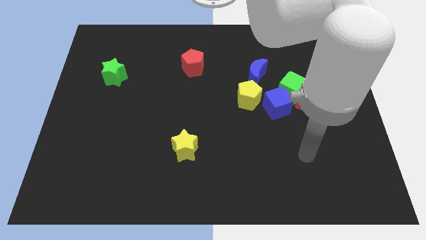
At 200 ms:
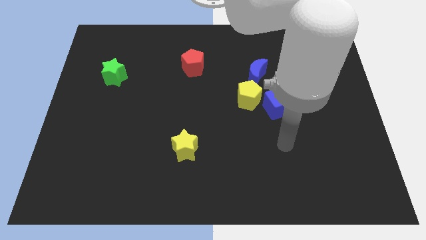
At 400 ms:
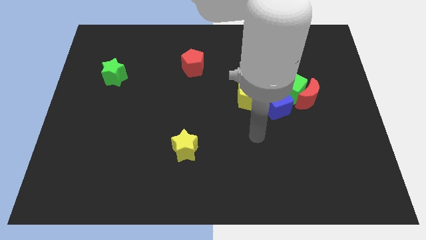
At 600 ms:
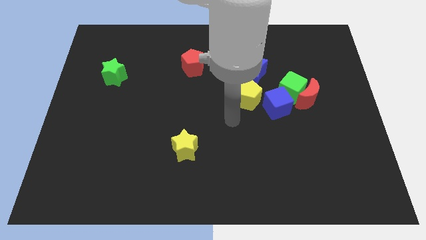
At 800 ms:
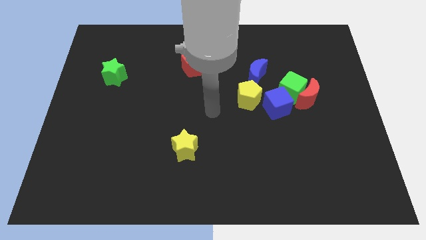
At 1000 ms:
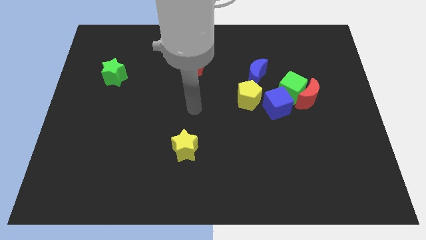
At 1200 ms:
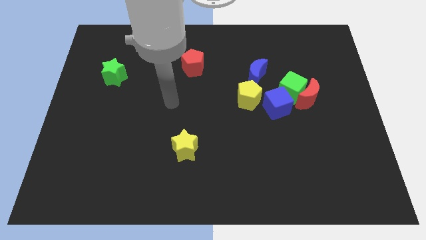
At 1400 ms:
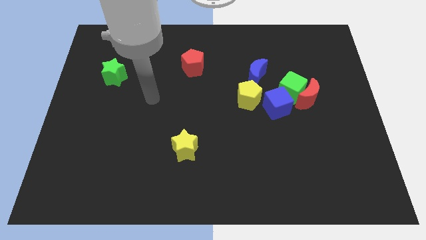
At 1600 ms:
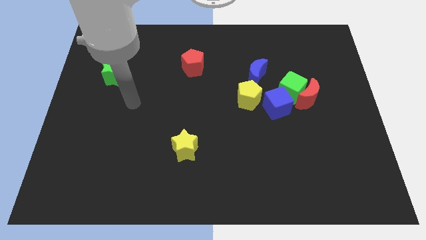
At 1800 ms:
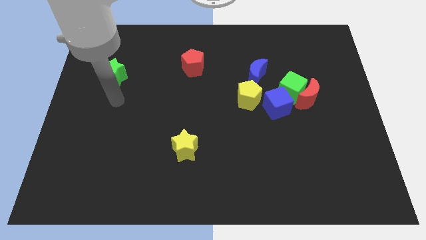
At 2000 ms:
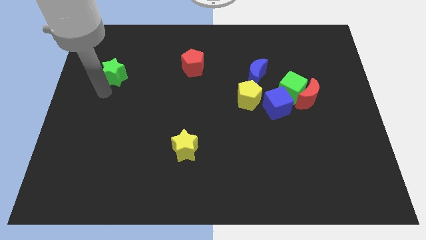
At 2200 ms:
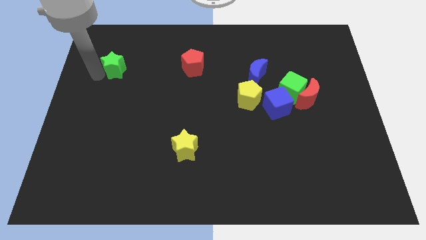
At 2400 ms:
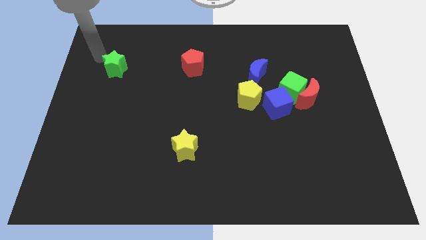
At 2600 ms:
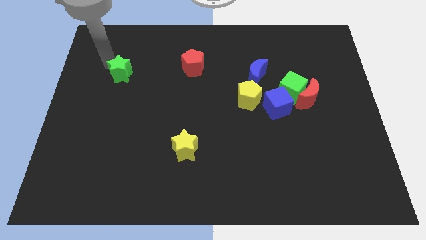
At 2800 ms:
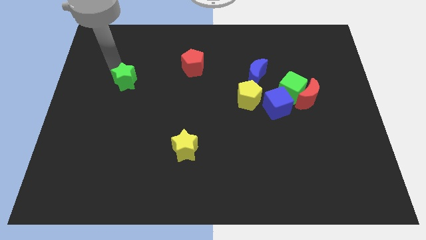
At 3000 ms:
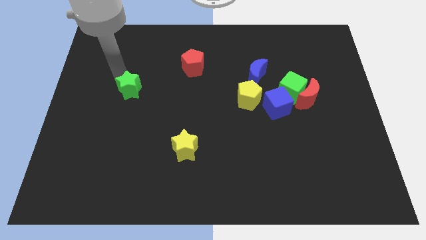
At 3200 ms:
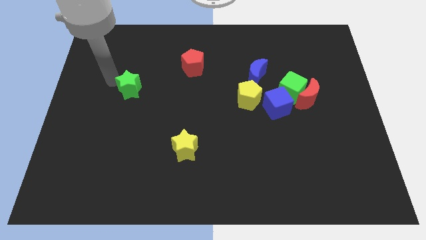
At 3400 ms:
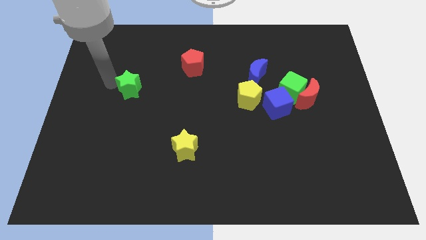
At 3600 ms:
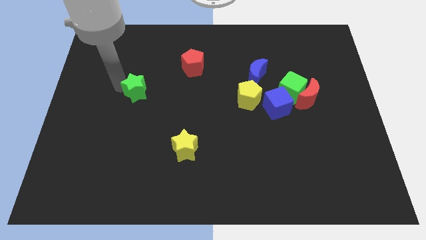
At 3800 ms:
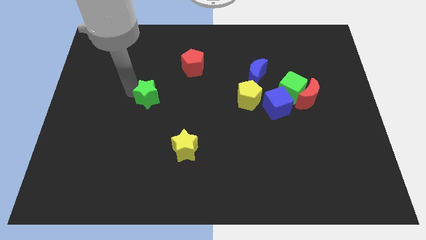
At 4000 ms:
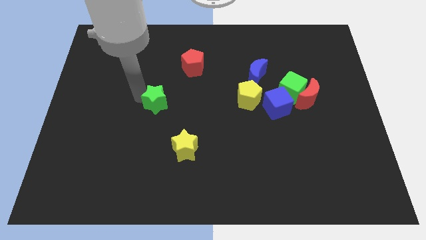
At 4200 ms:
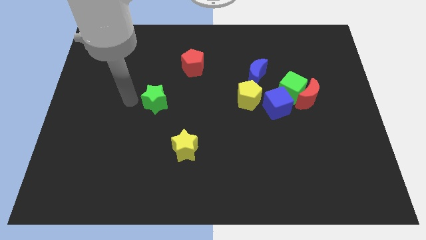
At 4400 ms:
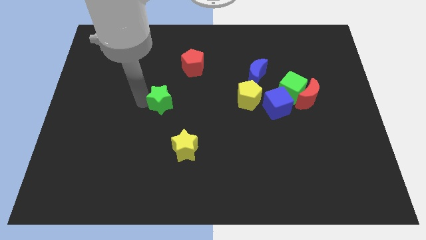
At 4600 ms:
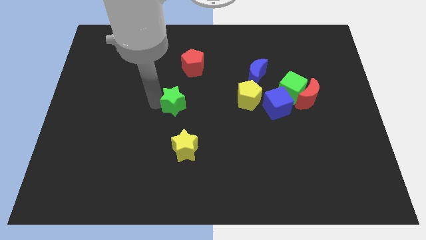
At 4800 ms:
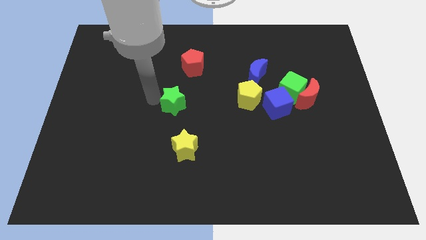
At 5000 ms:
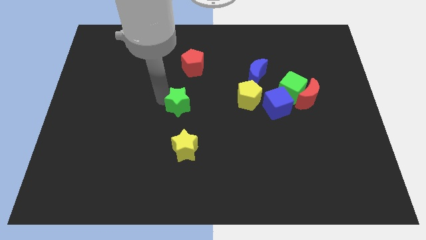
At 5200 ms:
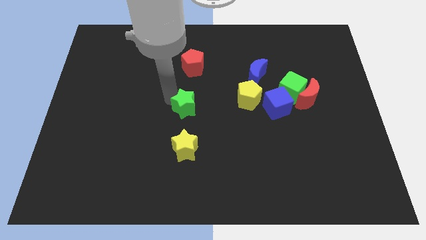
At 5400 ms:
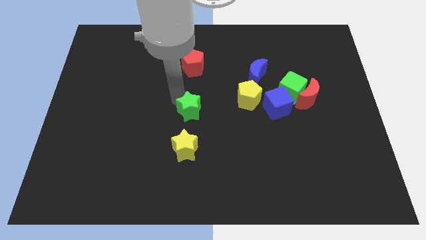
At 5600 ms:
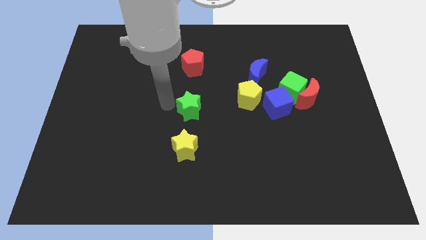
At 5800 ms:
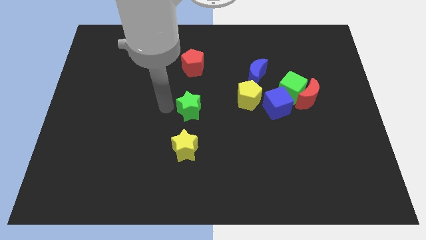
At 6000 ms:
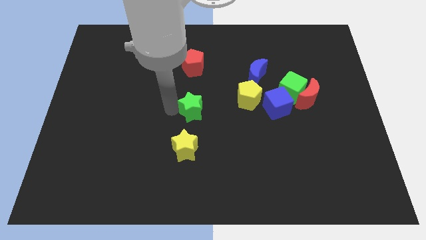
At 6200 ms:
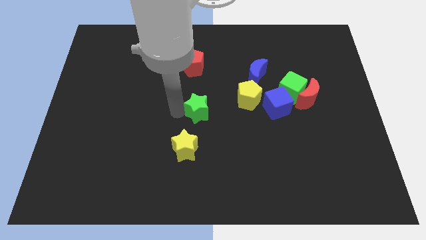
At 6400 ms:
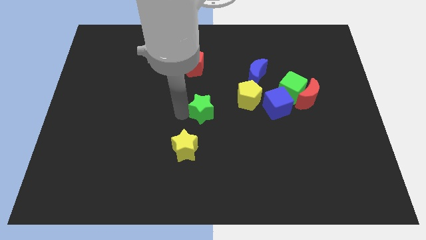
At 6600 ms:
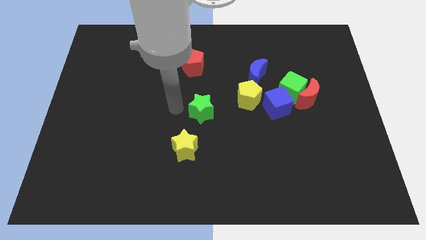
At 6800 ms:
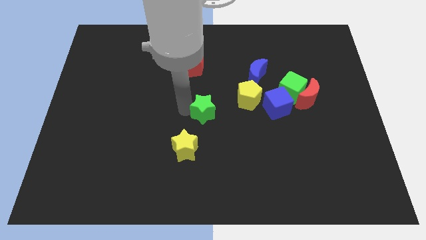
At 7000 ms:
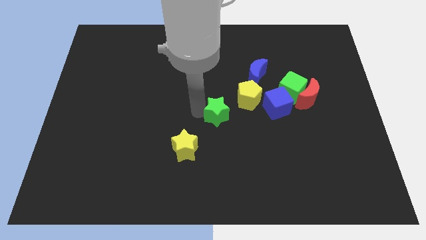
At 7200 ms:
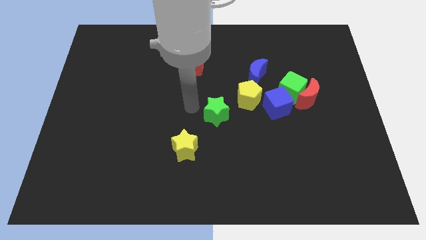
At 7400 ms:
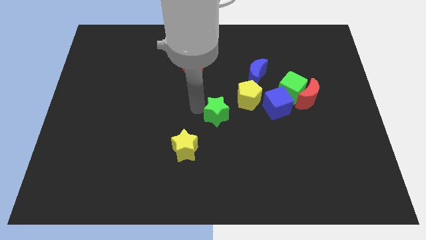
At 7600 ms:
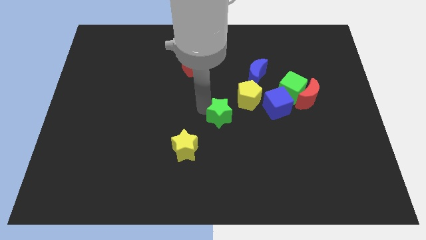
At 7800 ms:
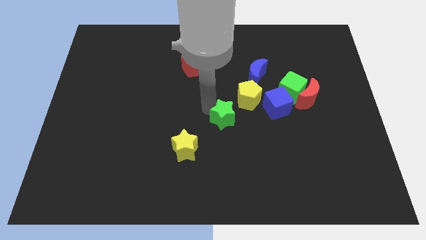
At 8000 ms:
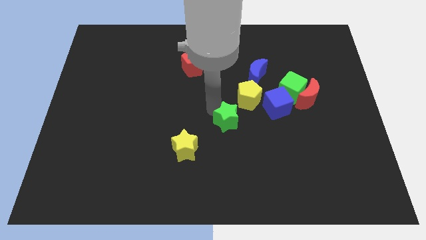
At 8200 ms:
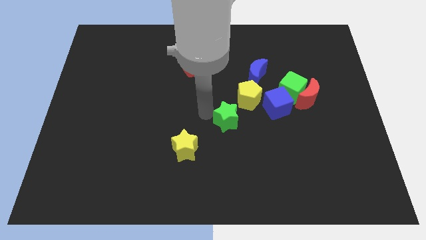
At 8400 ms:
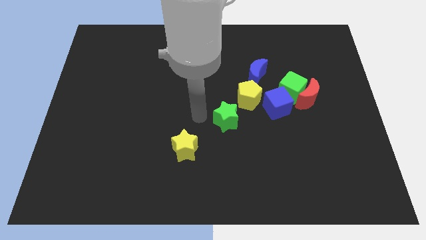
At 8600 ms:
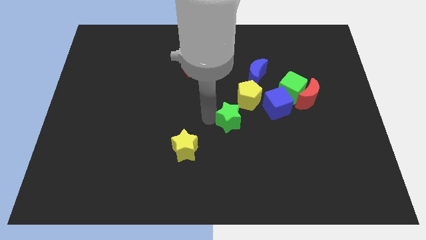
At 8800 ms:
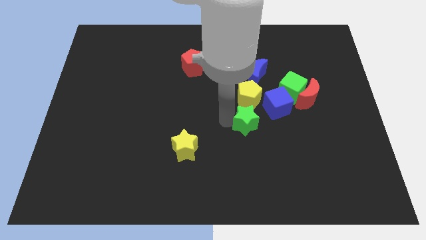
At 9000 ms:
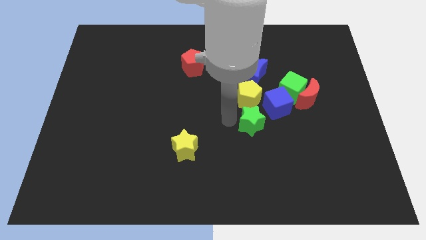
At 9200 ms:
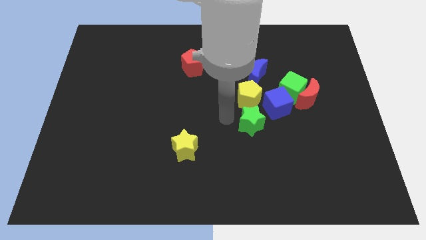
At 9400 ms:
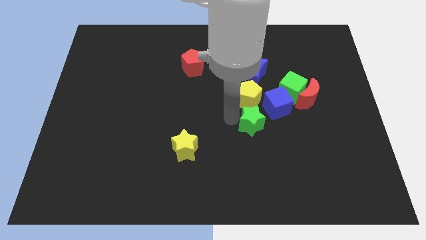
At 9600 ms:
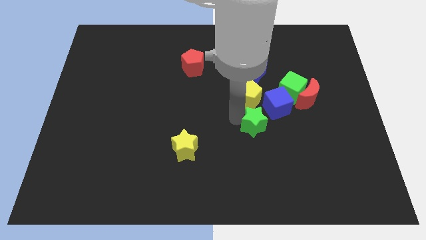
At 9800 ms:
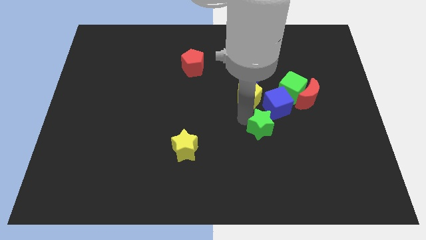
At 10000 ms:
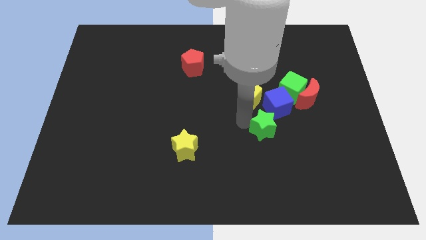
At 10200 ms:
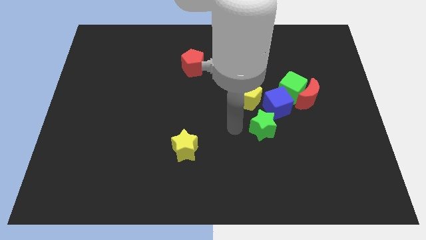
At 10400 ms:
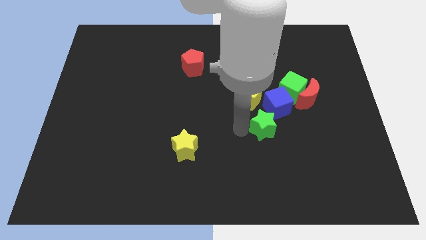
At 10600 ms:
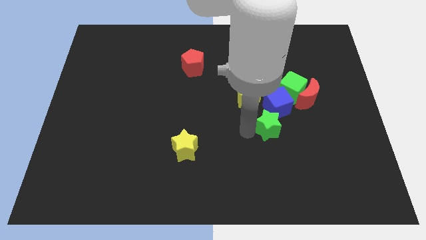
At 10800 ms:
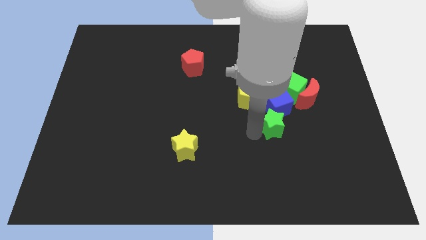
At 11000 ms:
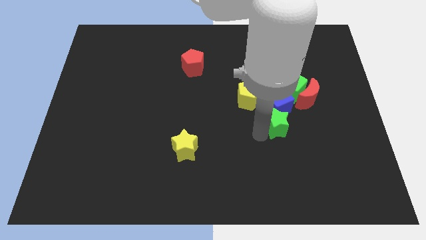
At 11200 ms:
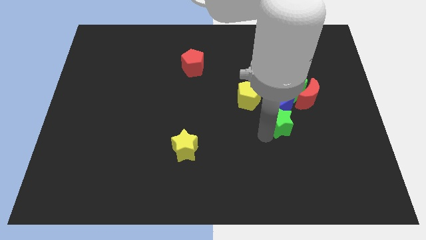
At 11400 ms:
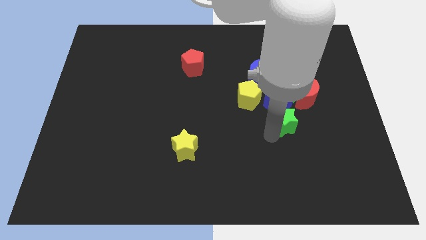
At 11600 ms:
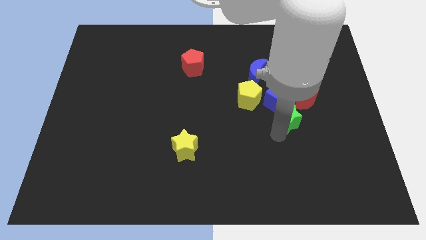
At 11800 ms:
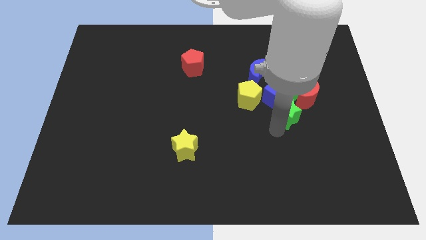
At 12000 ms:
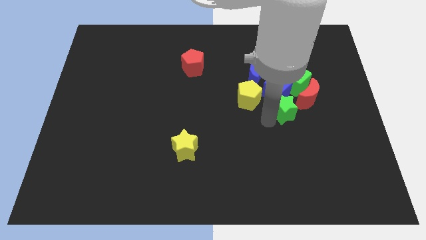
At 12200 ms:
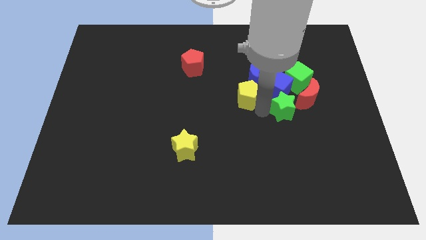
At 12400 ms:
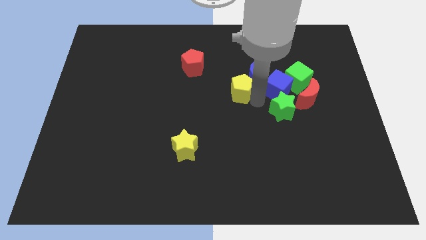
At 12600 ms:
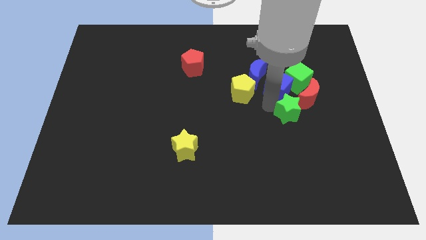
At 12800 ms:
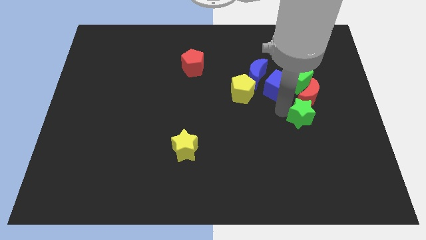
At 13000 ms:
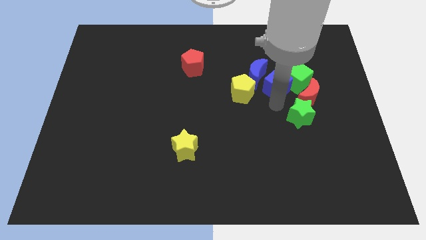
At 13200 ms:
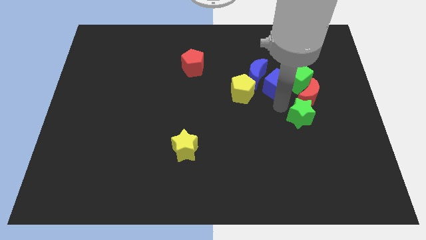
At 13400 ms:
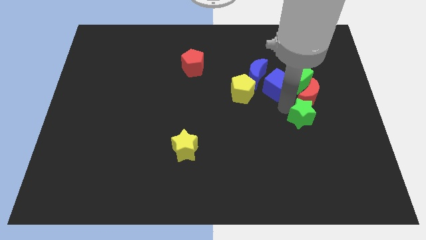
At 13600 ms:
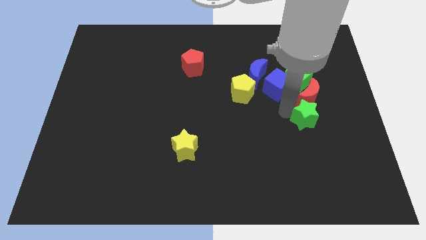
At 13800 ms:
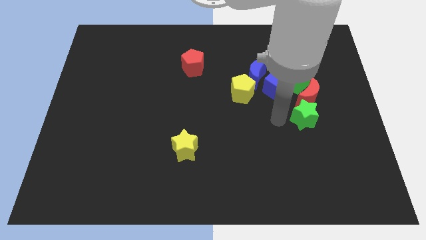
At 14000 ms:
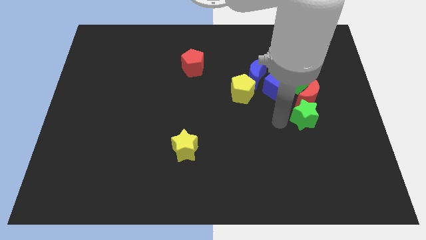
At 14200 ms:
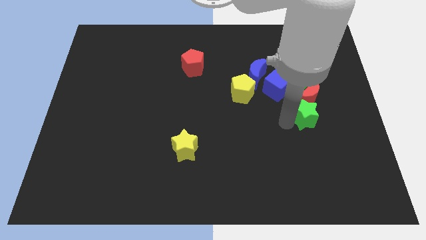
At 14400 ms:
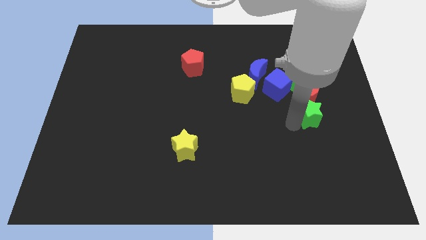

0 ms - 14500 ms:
push the green star to the bottom right of the red moon

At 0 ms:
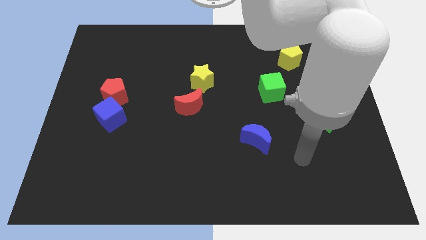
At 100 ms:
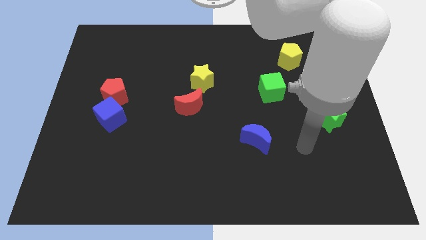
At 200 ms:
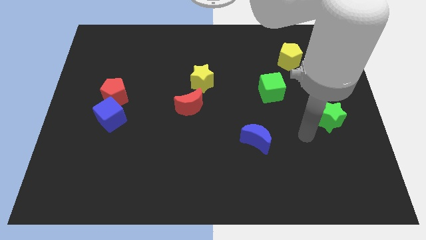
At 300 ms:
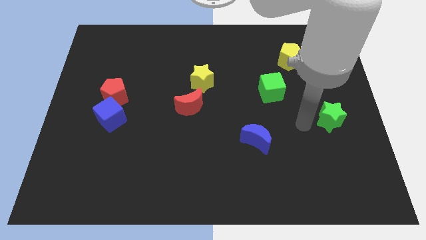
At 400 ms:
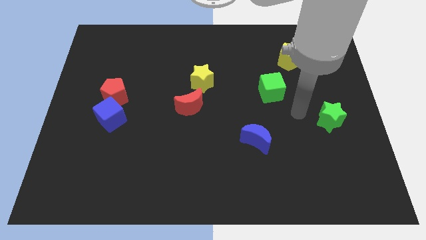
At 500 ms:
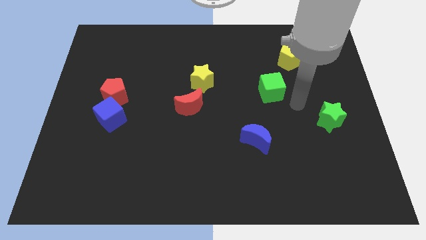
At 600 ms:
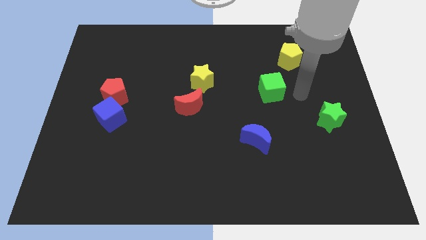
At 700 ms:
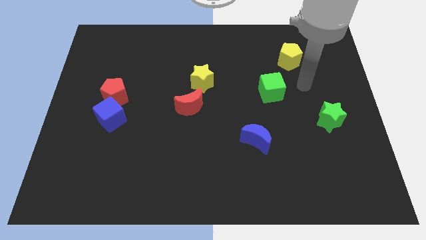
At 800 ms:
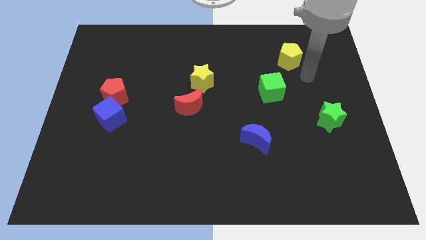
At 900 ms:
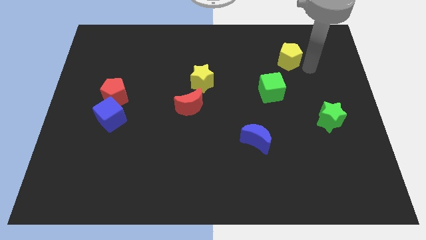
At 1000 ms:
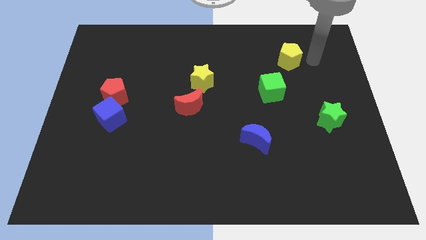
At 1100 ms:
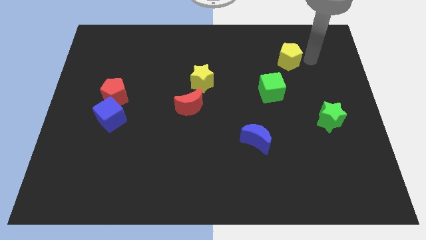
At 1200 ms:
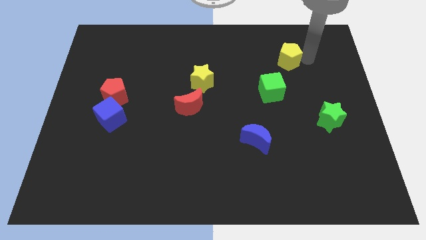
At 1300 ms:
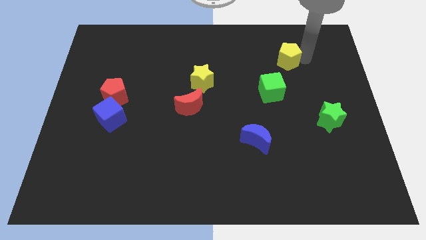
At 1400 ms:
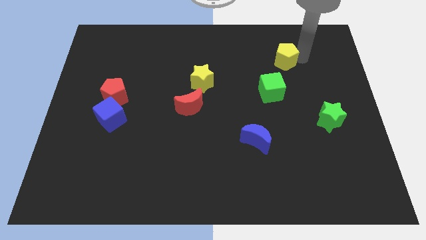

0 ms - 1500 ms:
put the yellow pentagon to the top side of the green cube
